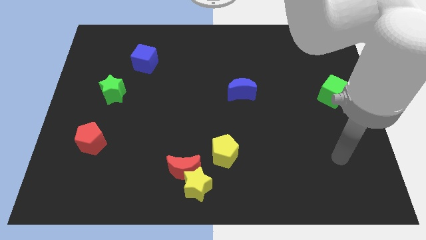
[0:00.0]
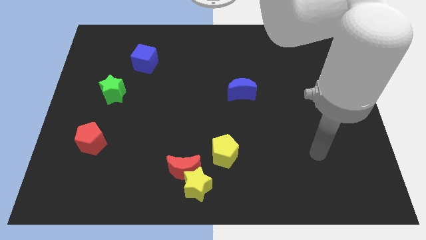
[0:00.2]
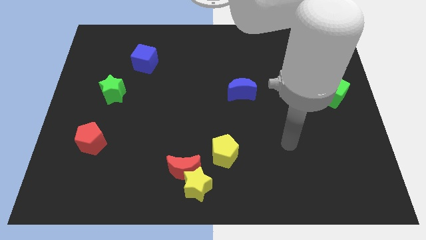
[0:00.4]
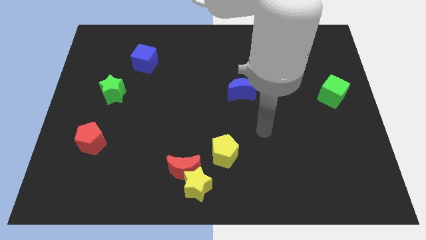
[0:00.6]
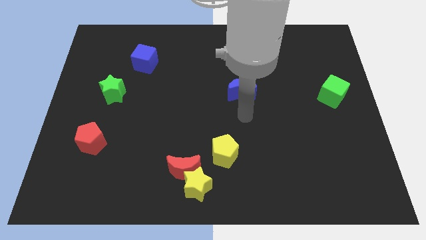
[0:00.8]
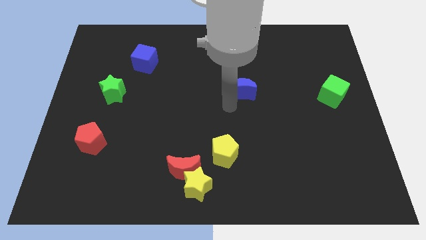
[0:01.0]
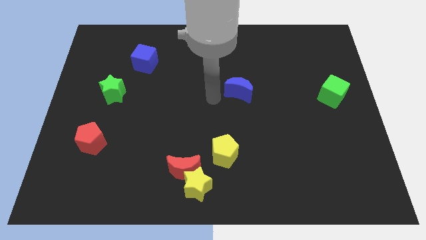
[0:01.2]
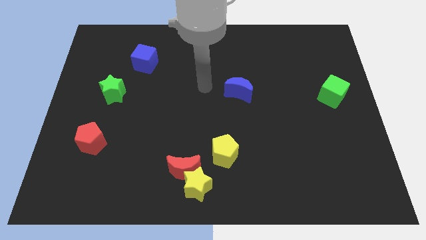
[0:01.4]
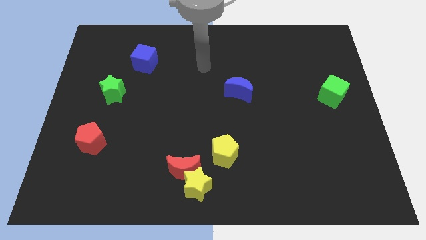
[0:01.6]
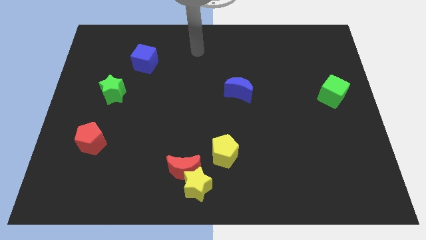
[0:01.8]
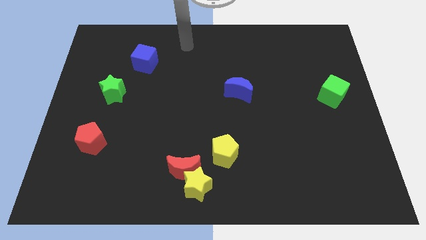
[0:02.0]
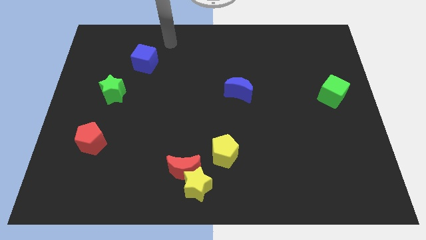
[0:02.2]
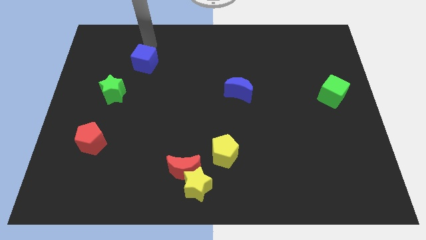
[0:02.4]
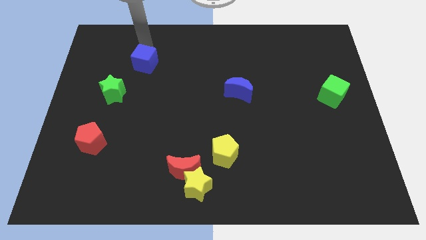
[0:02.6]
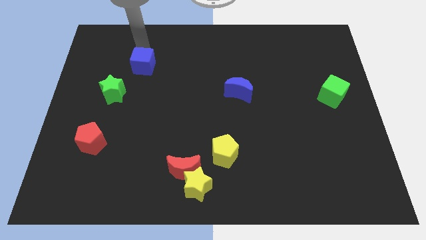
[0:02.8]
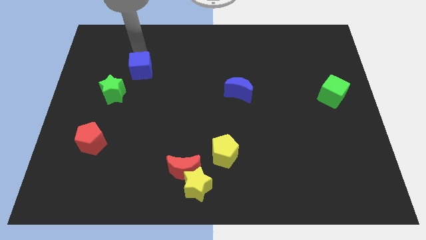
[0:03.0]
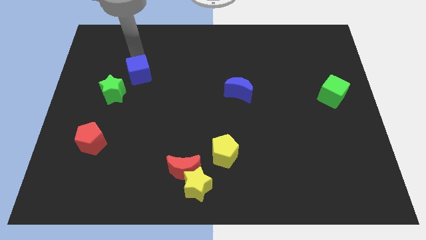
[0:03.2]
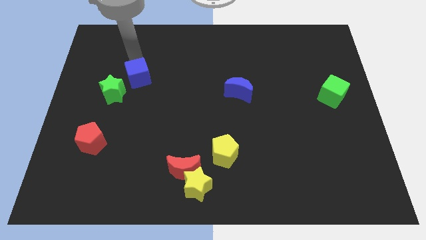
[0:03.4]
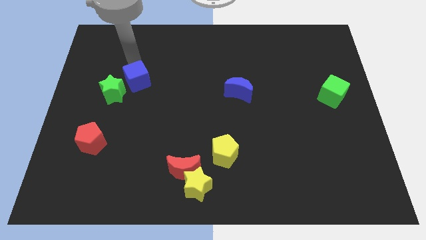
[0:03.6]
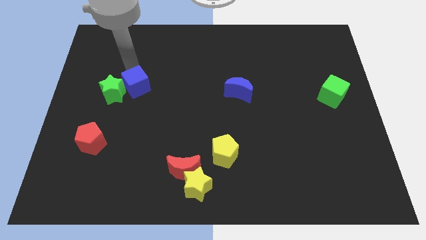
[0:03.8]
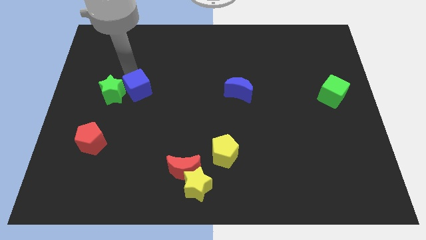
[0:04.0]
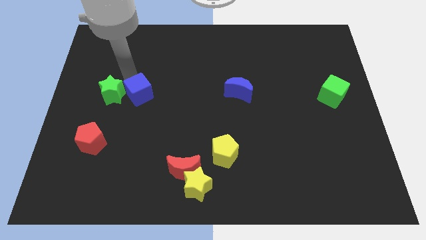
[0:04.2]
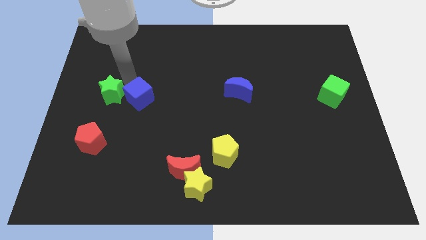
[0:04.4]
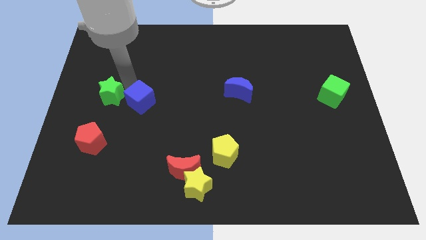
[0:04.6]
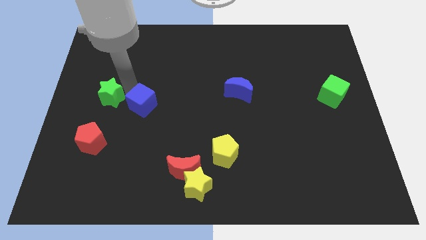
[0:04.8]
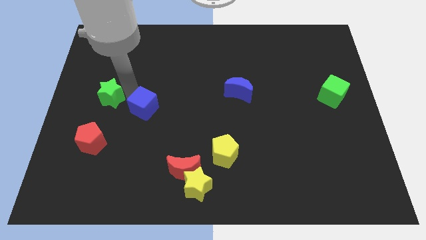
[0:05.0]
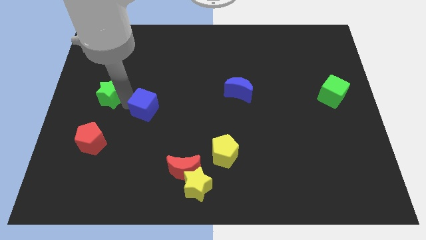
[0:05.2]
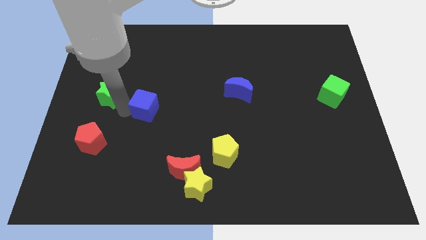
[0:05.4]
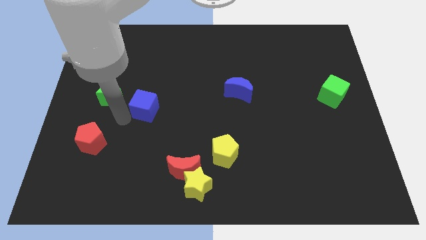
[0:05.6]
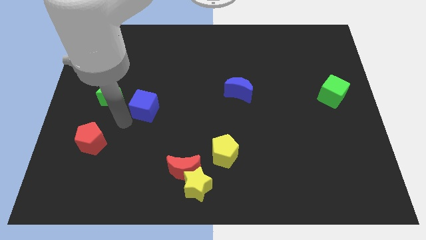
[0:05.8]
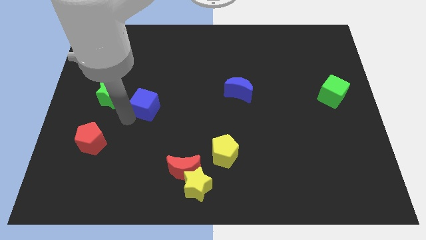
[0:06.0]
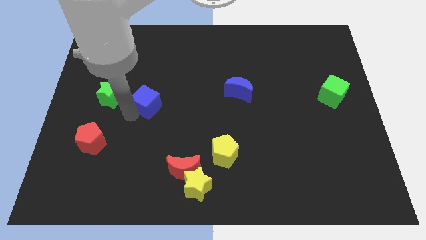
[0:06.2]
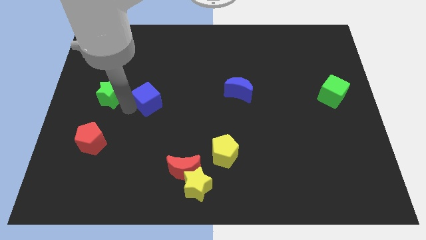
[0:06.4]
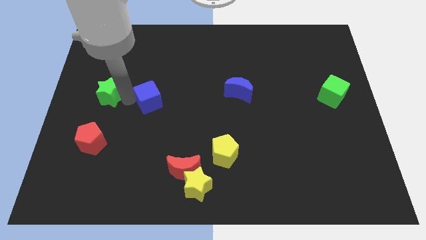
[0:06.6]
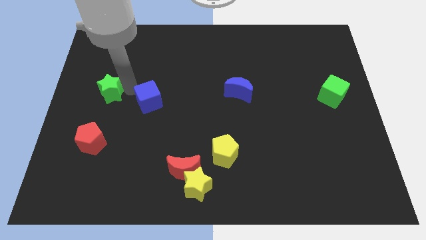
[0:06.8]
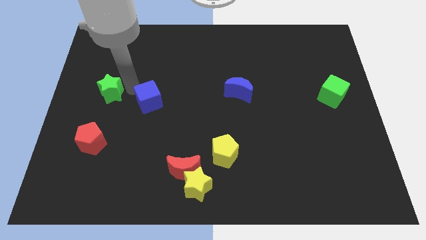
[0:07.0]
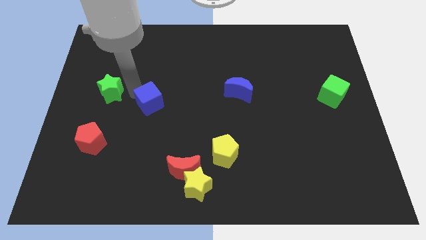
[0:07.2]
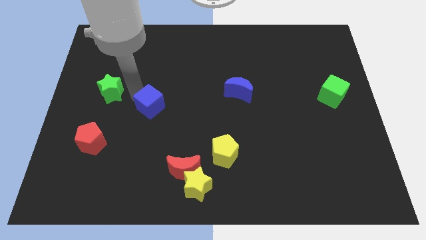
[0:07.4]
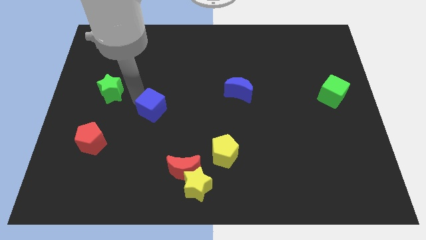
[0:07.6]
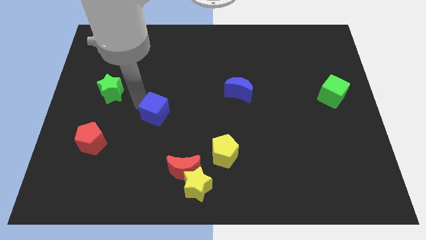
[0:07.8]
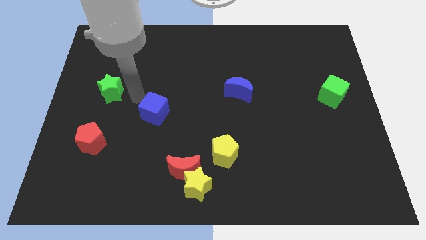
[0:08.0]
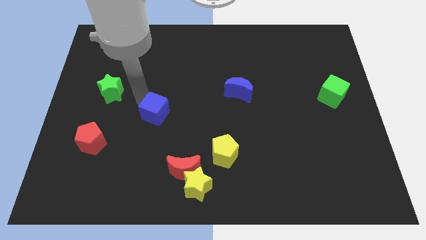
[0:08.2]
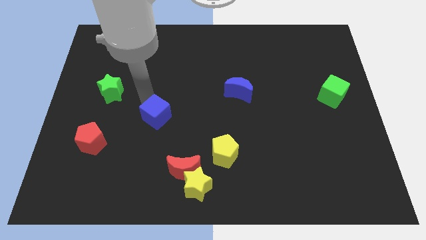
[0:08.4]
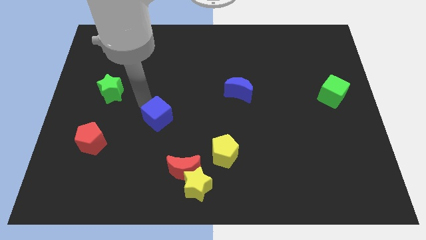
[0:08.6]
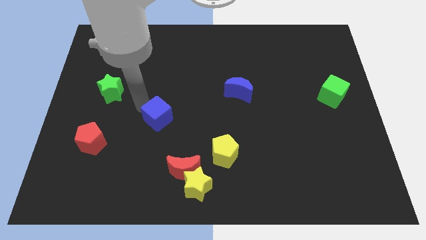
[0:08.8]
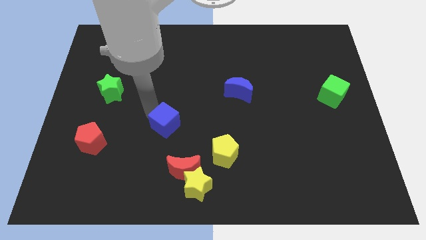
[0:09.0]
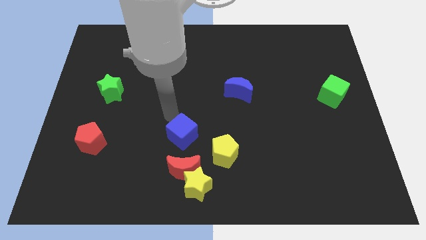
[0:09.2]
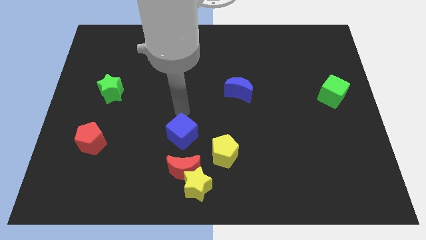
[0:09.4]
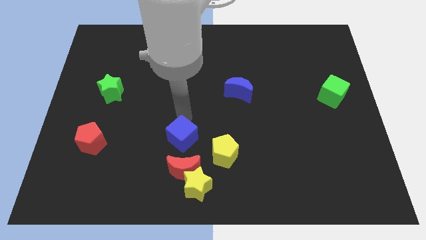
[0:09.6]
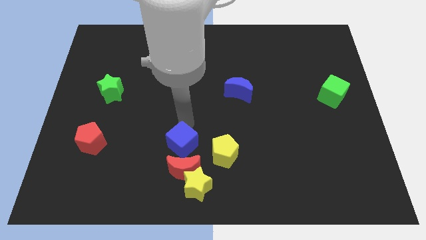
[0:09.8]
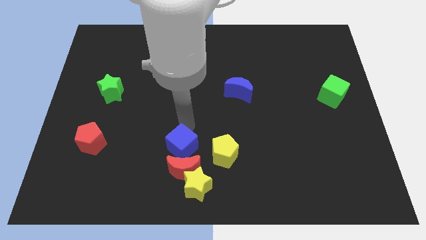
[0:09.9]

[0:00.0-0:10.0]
push the blue cube towards the red moon

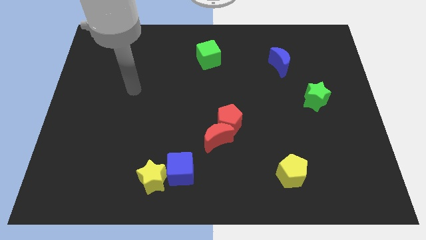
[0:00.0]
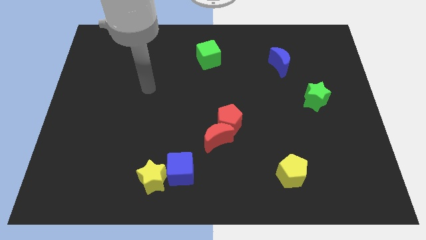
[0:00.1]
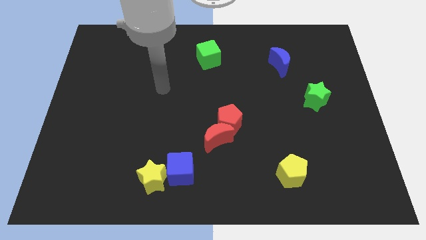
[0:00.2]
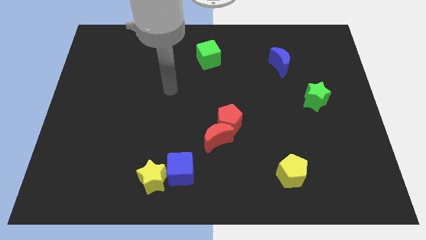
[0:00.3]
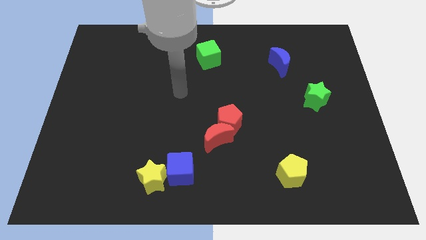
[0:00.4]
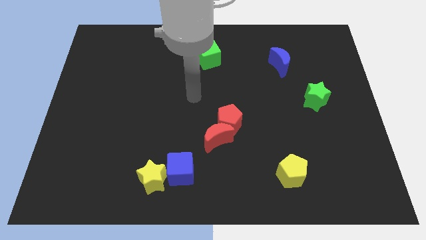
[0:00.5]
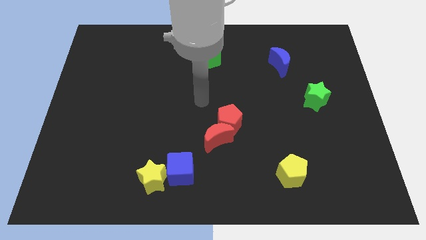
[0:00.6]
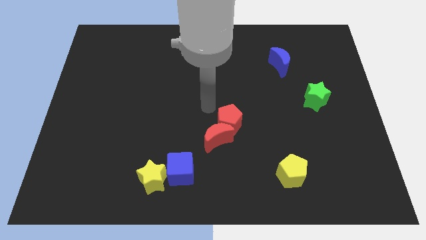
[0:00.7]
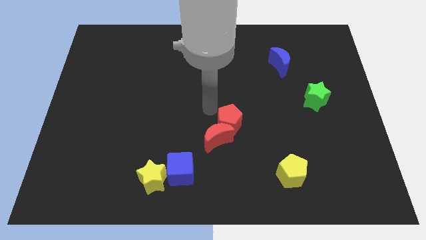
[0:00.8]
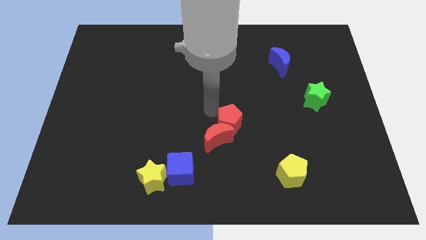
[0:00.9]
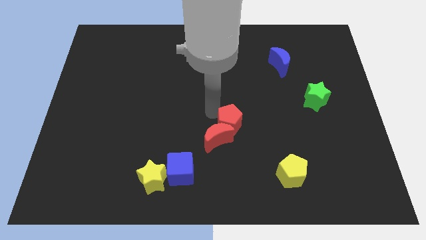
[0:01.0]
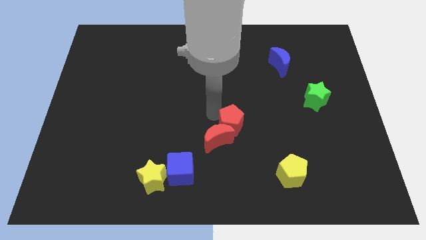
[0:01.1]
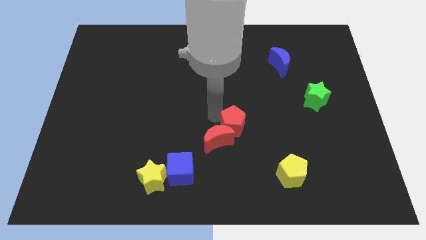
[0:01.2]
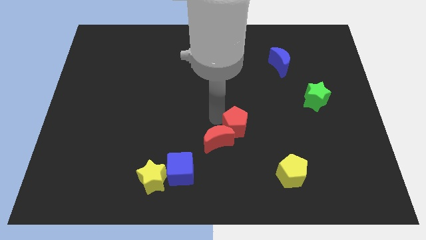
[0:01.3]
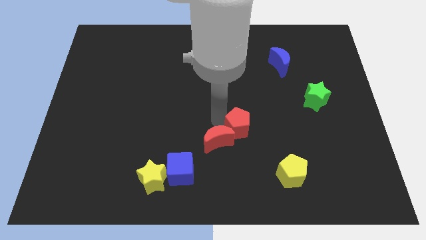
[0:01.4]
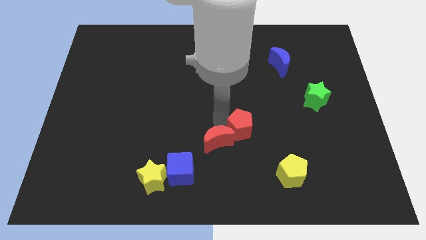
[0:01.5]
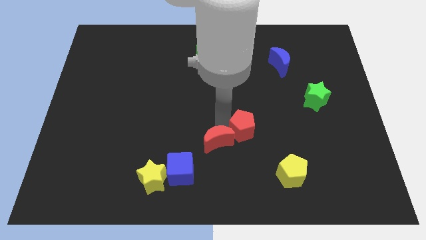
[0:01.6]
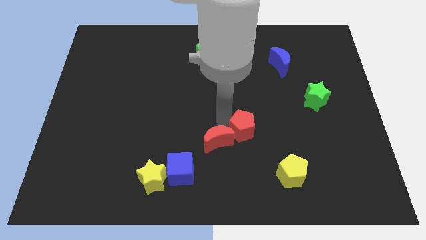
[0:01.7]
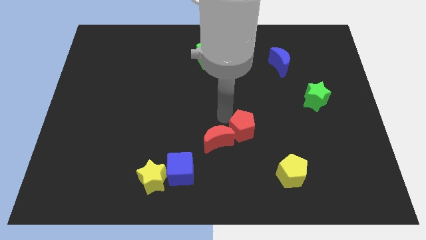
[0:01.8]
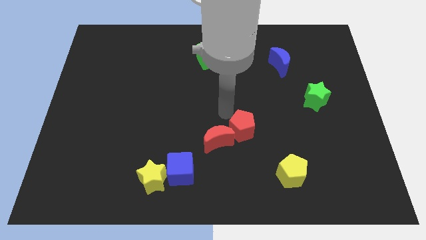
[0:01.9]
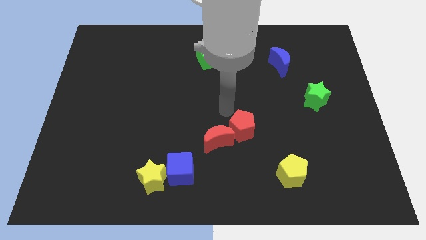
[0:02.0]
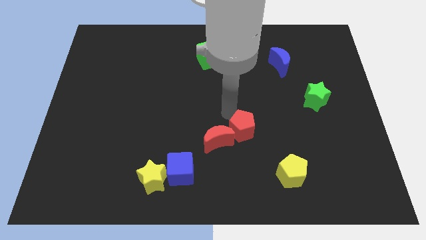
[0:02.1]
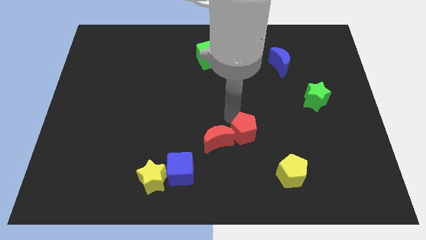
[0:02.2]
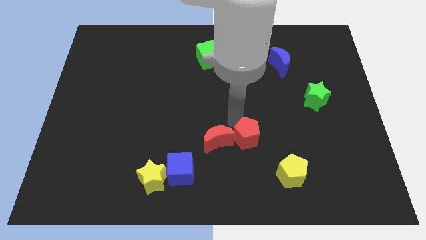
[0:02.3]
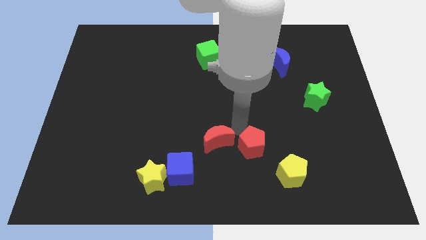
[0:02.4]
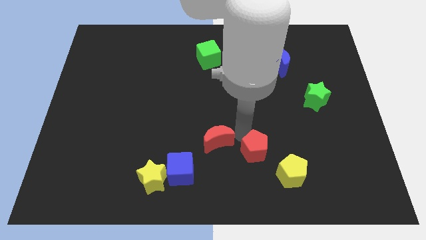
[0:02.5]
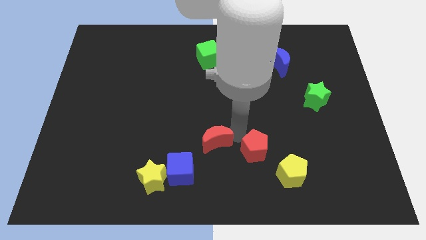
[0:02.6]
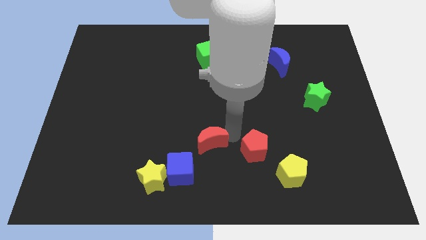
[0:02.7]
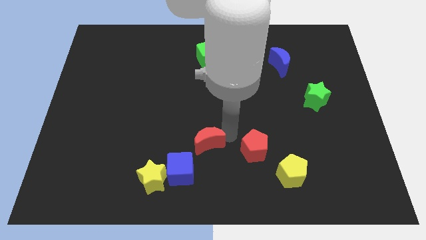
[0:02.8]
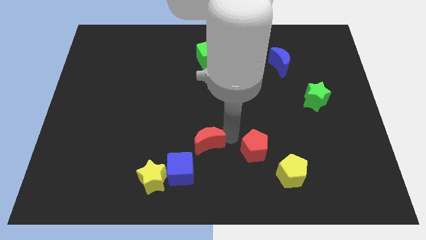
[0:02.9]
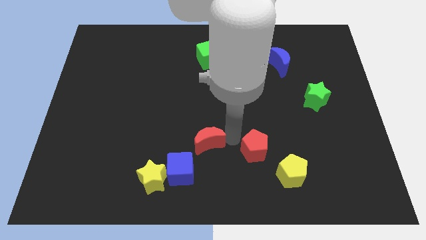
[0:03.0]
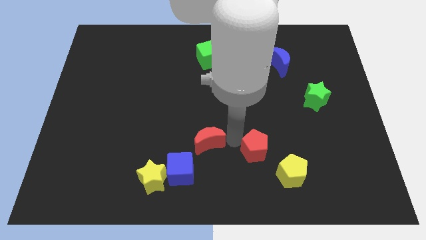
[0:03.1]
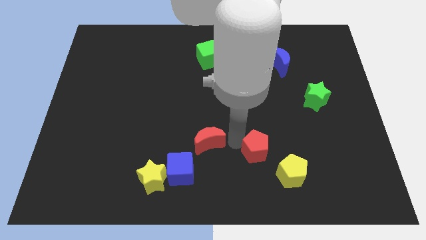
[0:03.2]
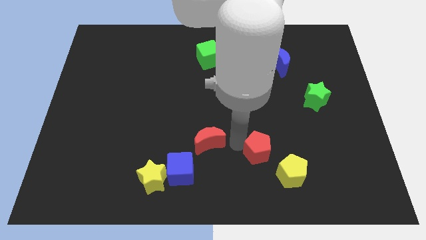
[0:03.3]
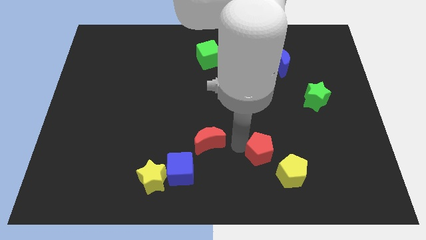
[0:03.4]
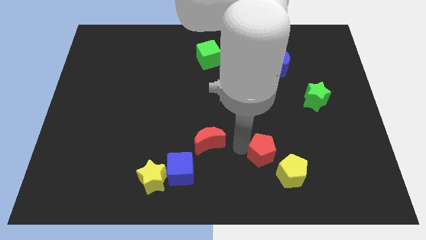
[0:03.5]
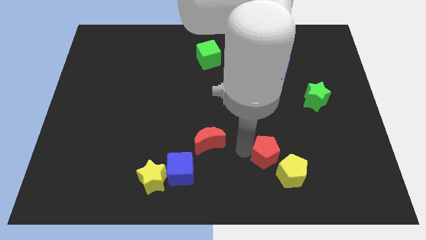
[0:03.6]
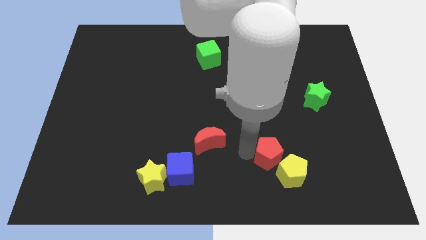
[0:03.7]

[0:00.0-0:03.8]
slide the red pentagon to the yellow pentagon
